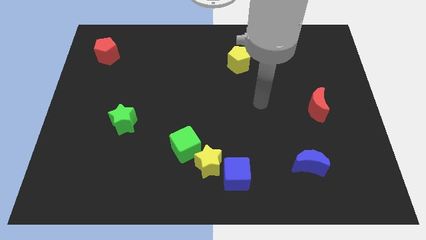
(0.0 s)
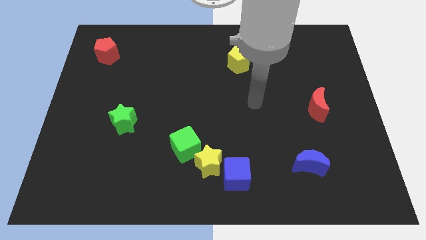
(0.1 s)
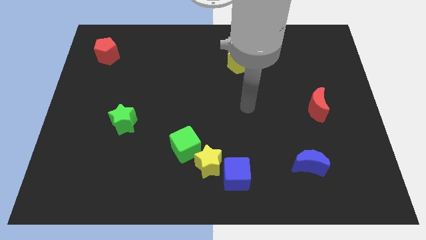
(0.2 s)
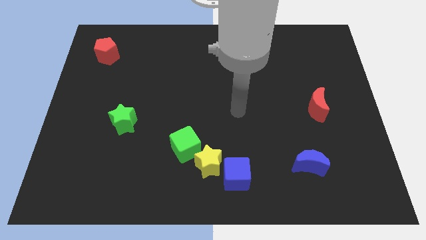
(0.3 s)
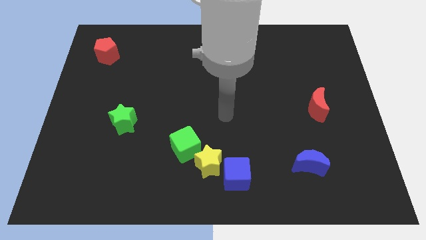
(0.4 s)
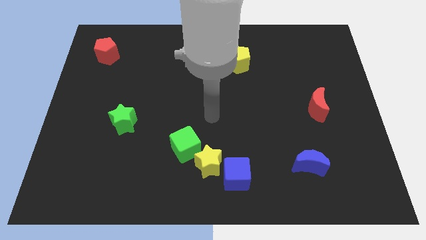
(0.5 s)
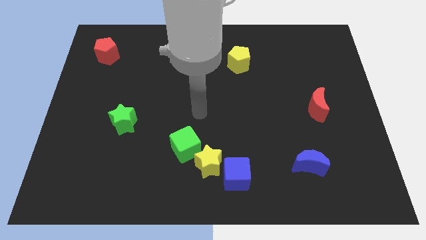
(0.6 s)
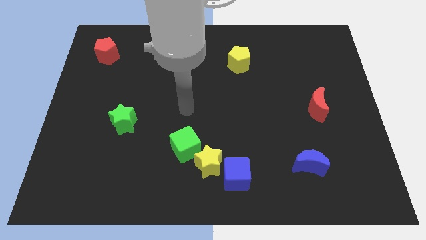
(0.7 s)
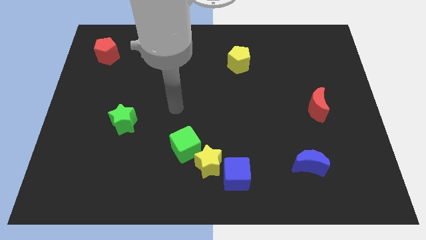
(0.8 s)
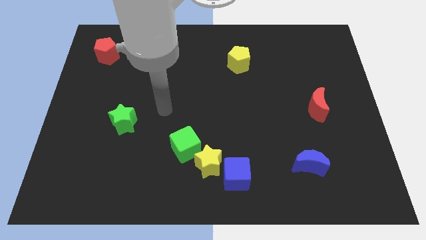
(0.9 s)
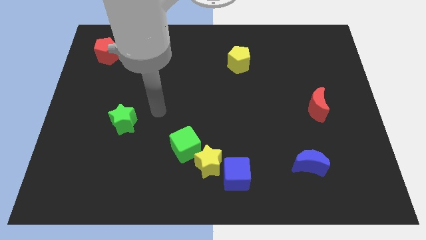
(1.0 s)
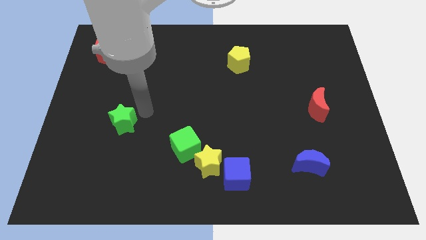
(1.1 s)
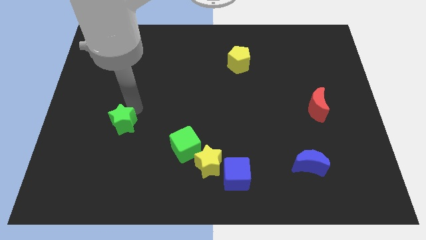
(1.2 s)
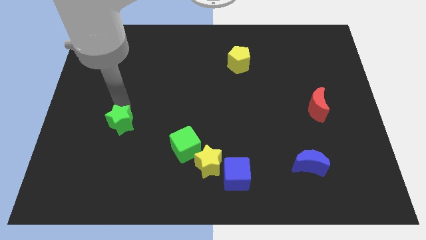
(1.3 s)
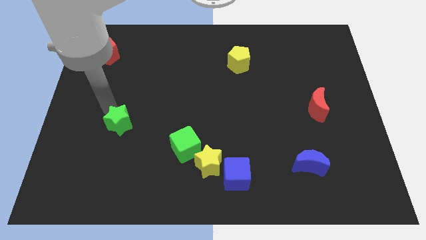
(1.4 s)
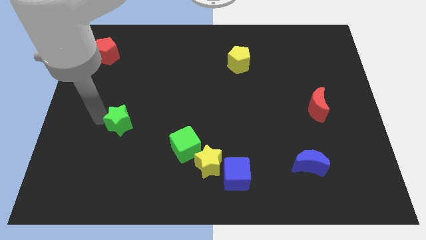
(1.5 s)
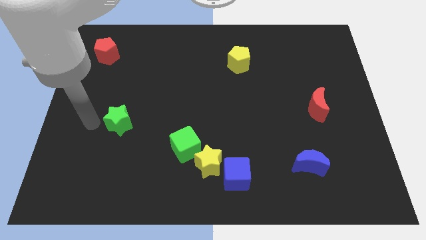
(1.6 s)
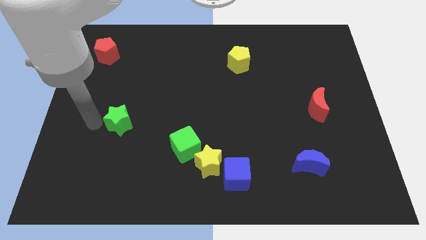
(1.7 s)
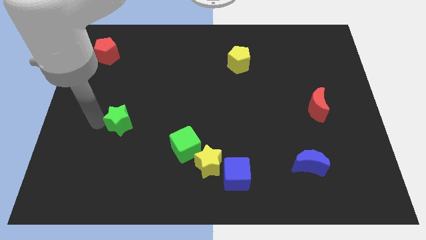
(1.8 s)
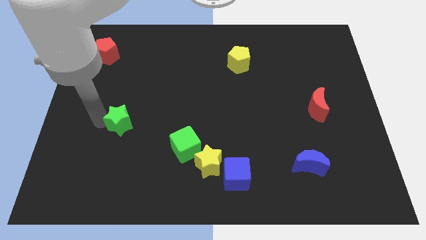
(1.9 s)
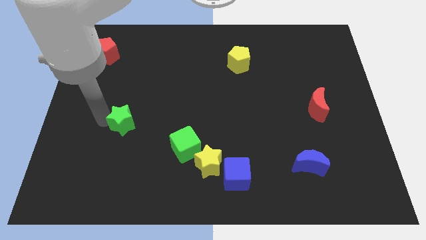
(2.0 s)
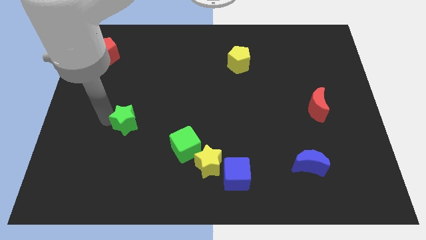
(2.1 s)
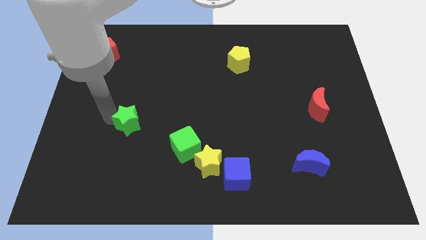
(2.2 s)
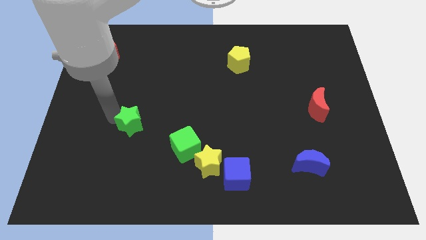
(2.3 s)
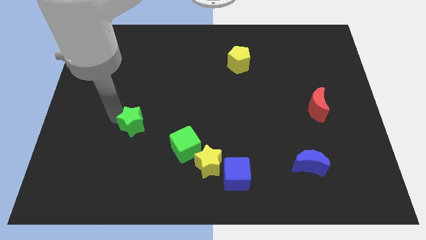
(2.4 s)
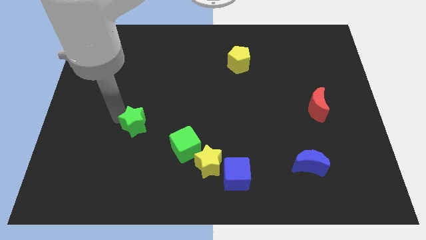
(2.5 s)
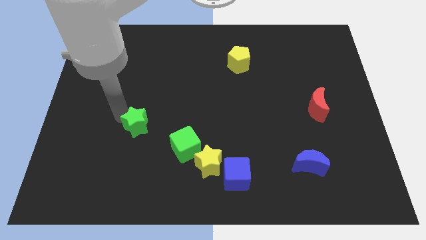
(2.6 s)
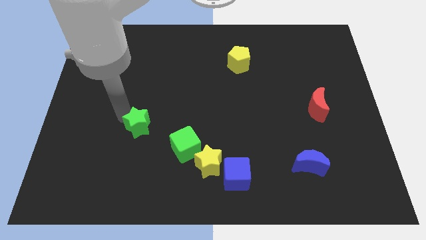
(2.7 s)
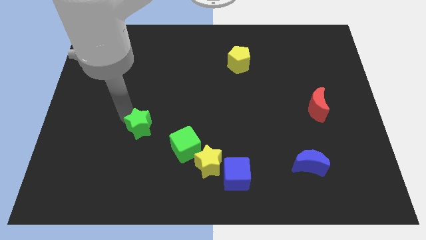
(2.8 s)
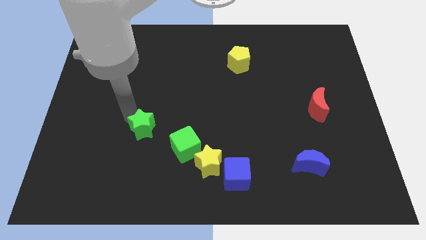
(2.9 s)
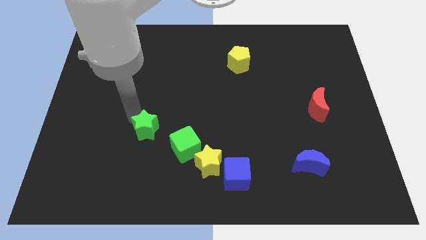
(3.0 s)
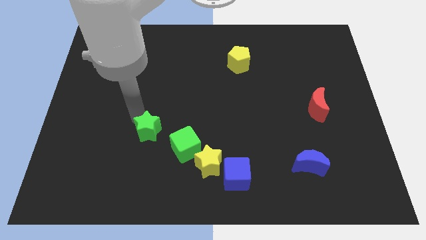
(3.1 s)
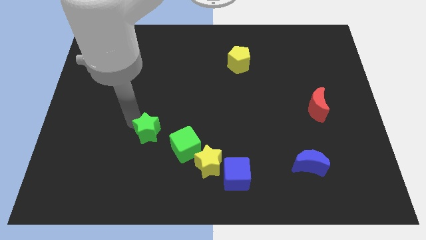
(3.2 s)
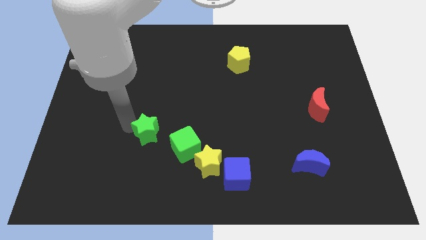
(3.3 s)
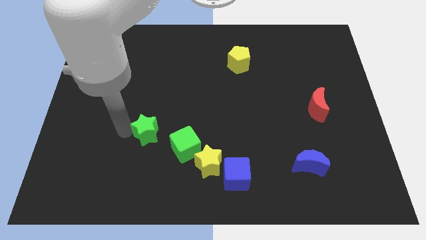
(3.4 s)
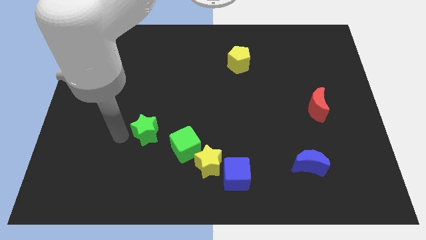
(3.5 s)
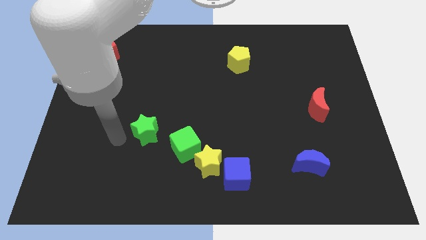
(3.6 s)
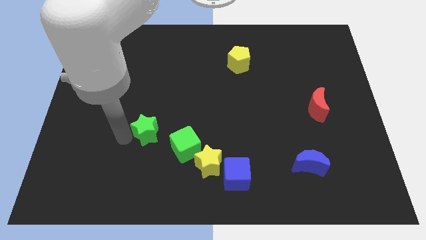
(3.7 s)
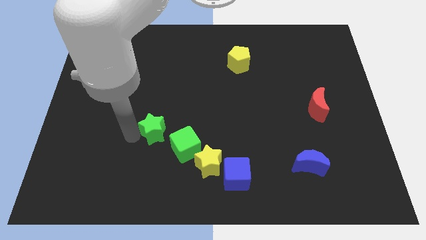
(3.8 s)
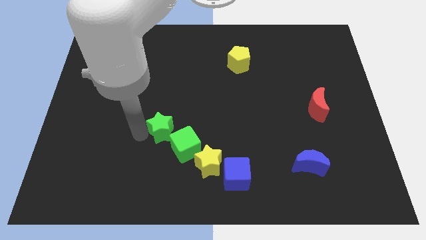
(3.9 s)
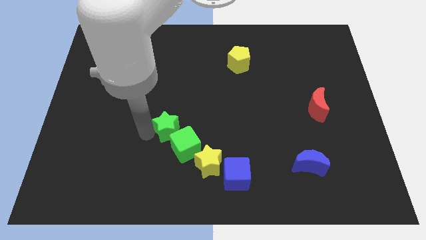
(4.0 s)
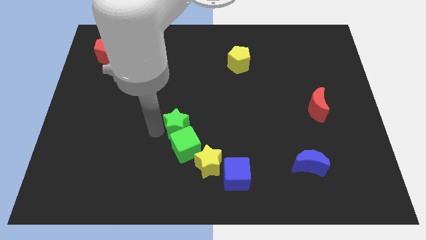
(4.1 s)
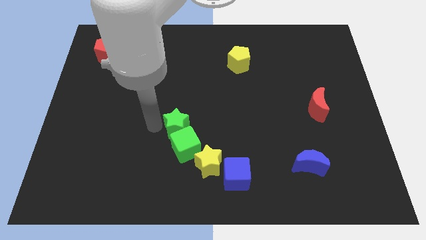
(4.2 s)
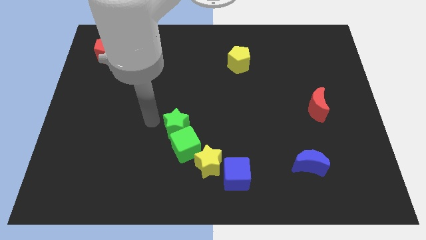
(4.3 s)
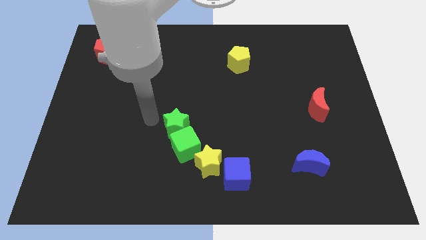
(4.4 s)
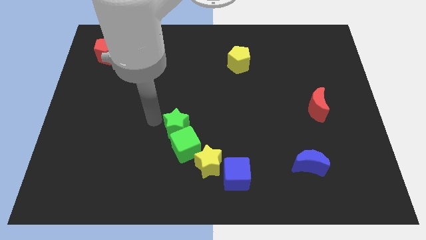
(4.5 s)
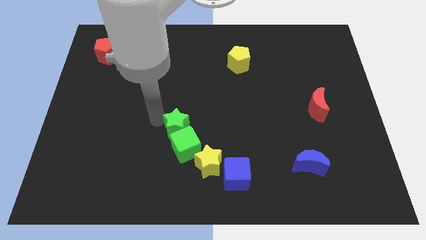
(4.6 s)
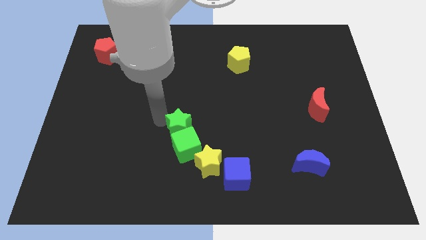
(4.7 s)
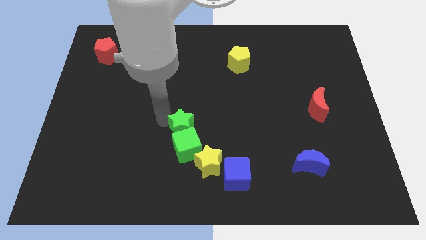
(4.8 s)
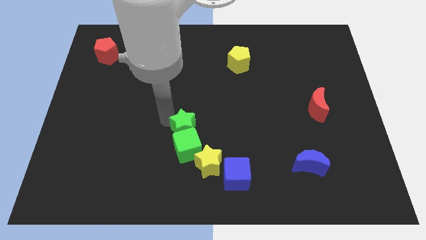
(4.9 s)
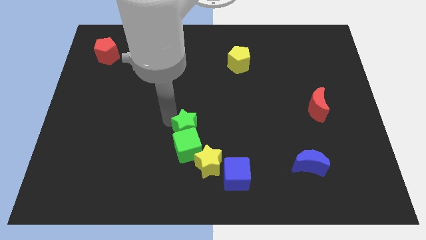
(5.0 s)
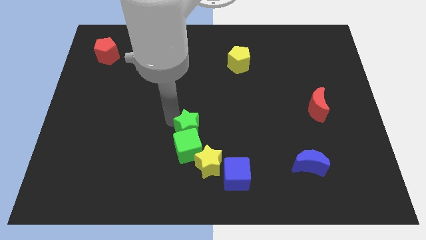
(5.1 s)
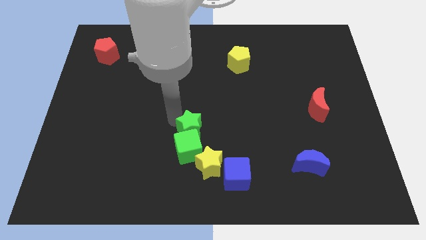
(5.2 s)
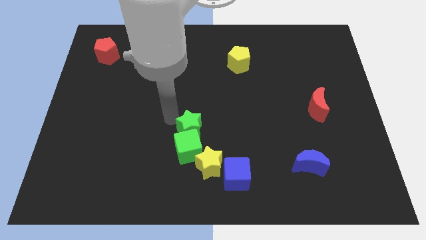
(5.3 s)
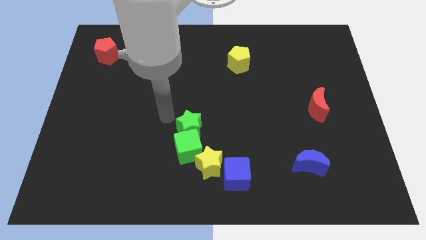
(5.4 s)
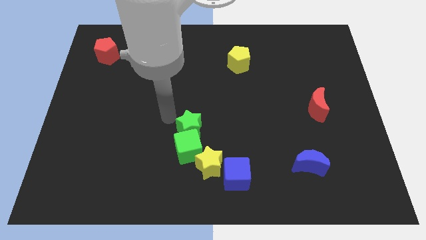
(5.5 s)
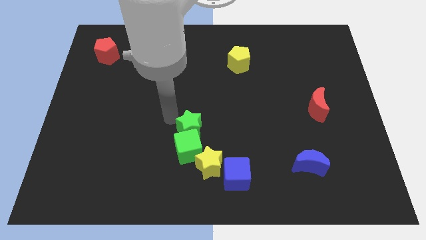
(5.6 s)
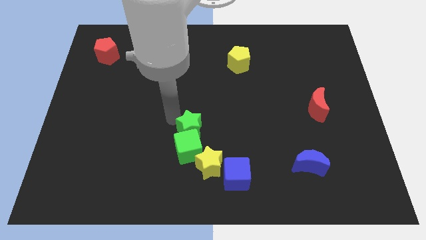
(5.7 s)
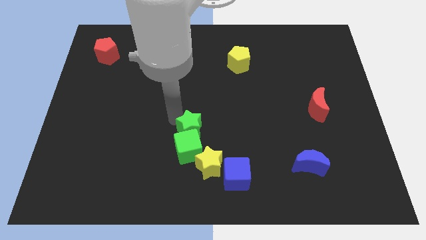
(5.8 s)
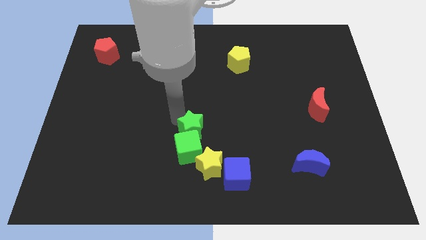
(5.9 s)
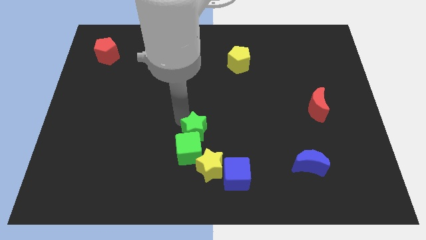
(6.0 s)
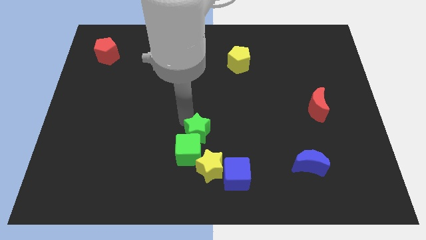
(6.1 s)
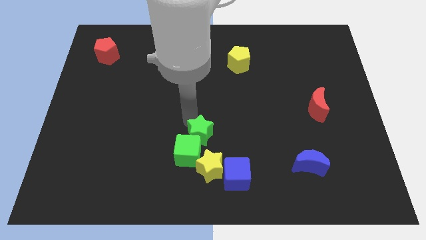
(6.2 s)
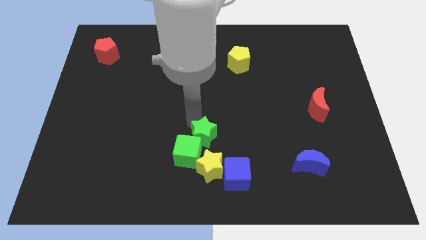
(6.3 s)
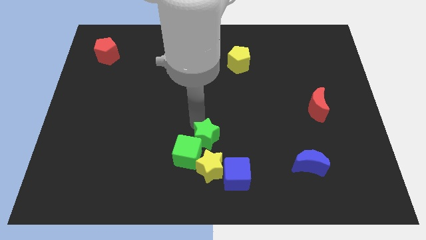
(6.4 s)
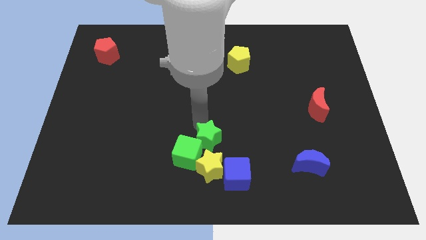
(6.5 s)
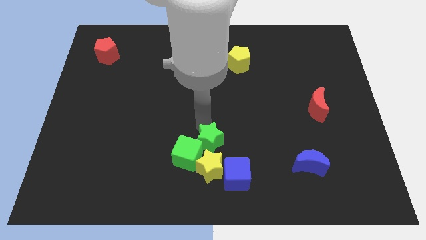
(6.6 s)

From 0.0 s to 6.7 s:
push the green star to the top right side of the yellow star
